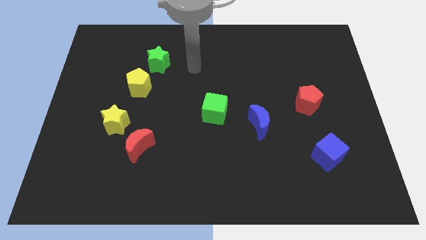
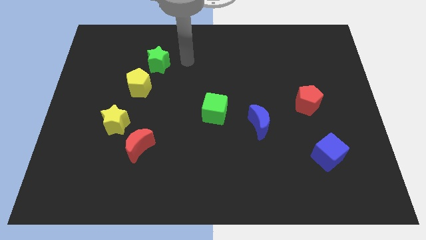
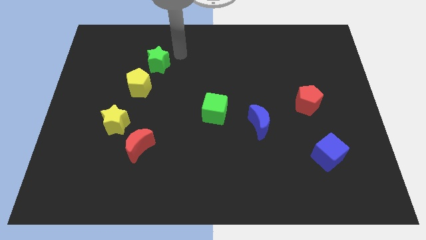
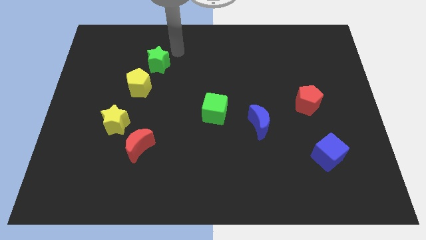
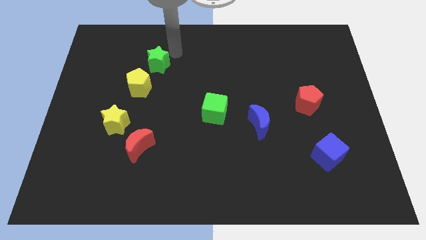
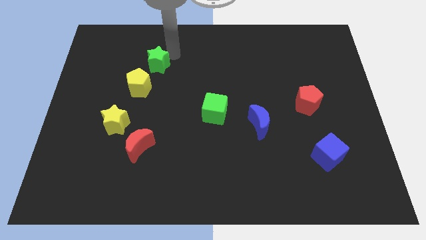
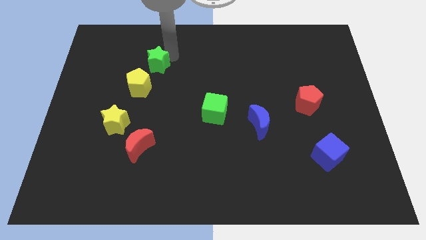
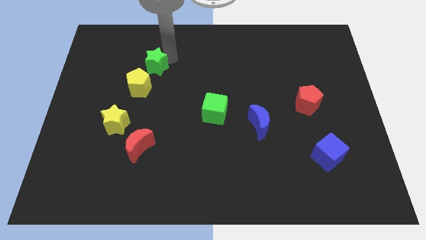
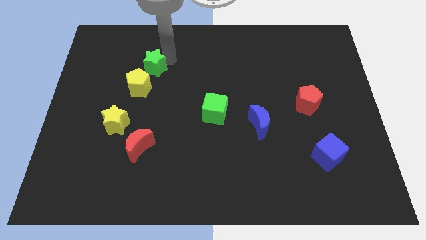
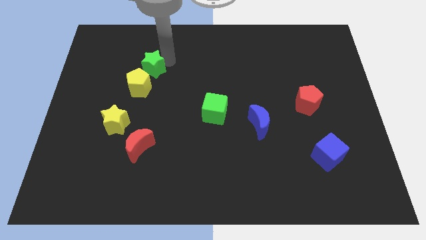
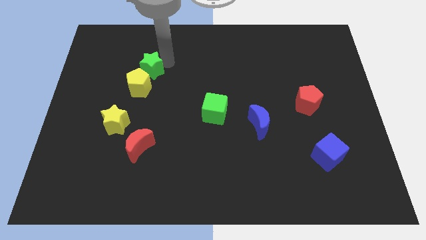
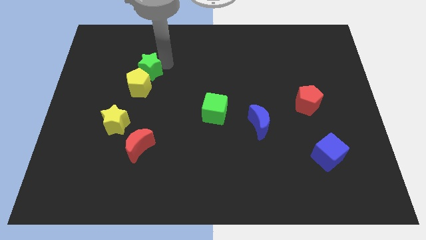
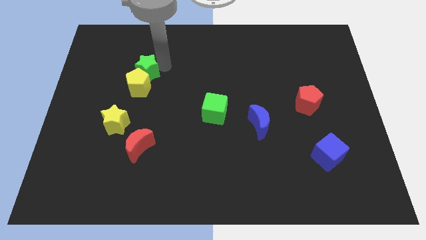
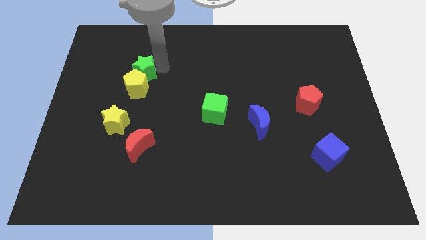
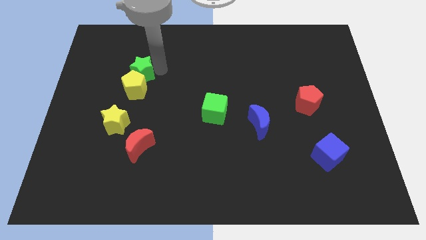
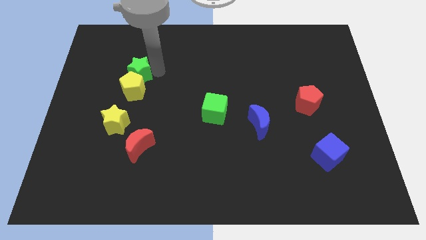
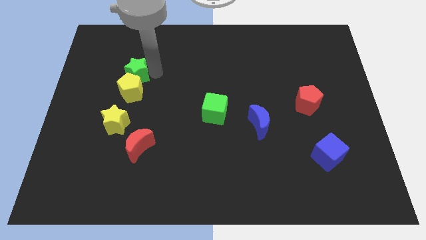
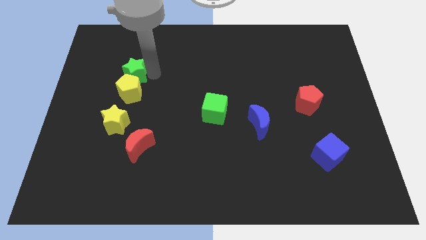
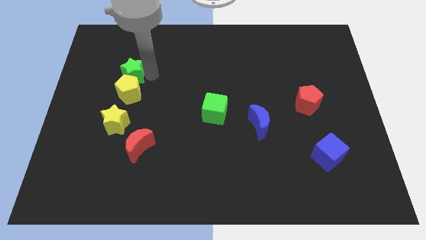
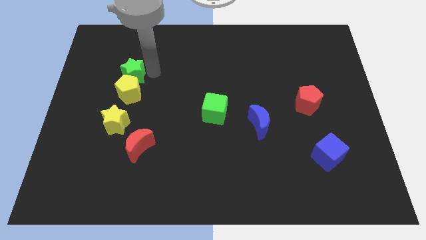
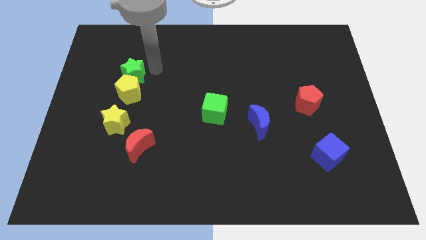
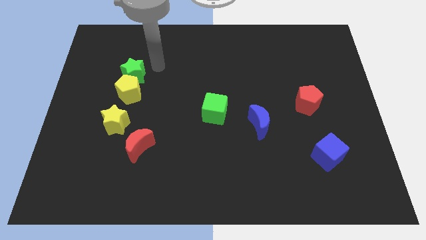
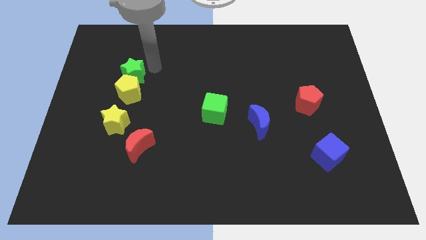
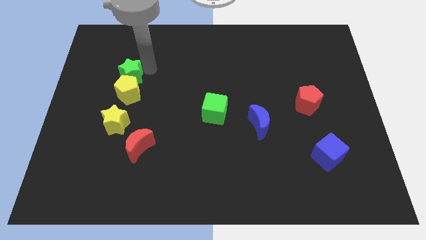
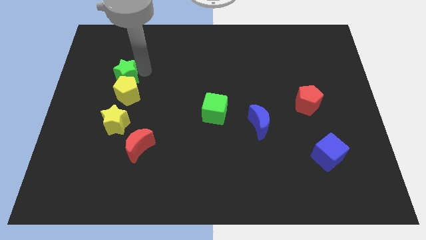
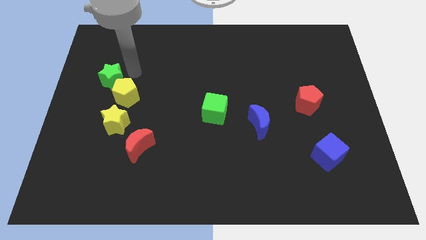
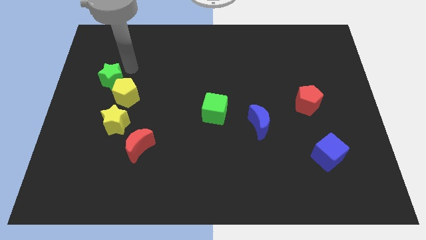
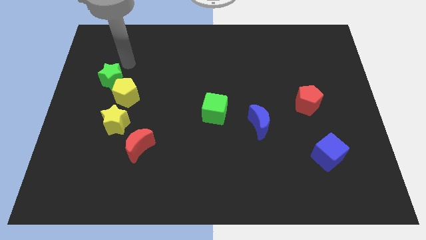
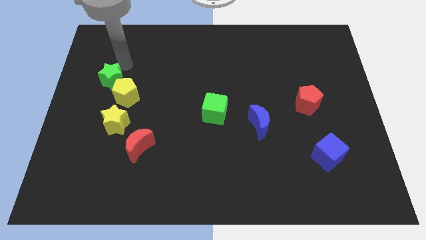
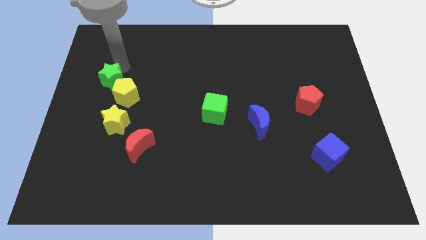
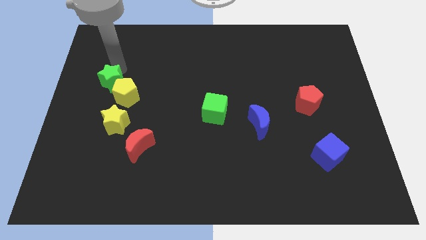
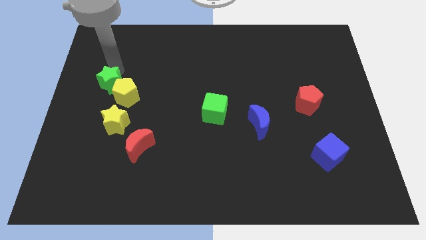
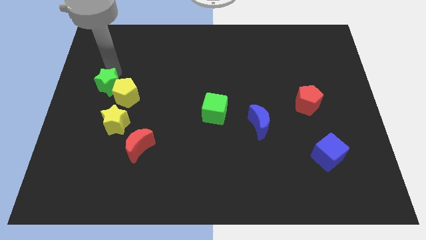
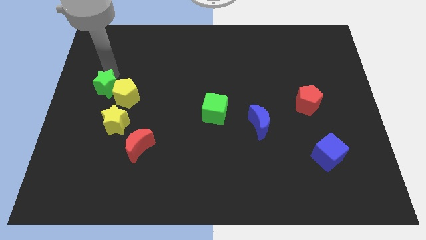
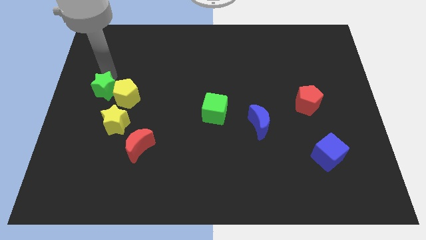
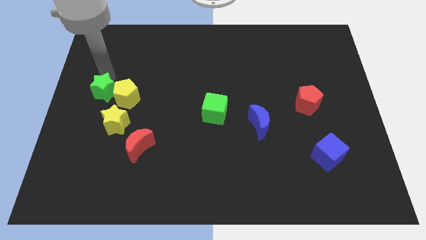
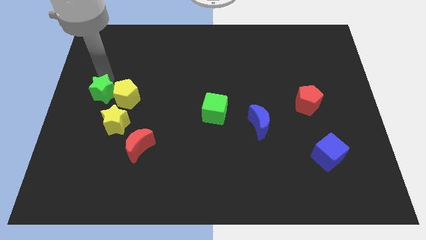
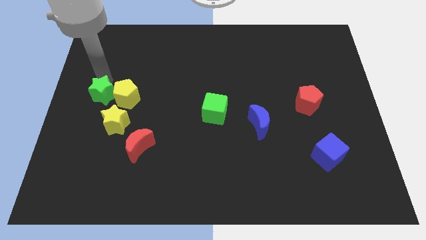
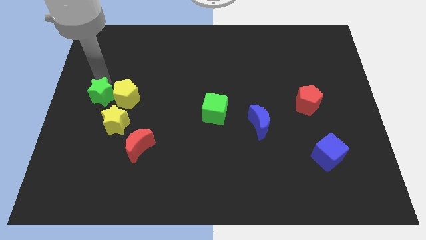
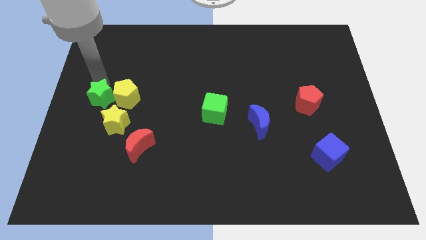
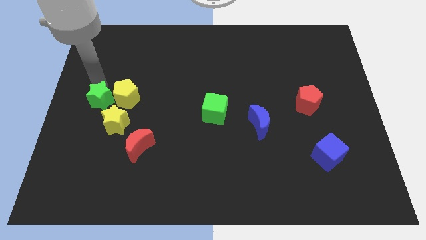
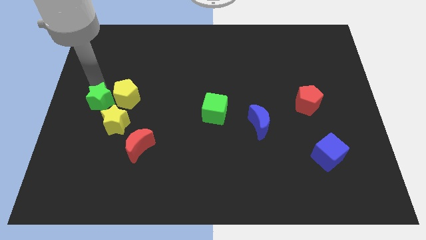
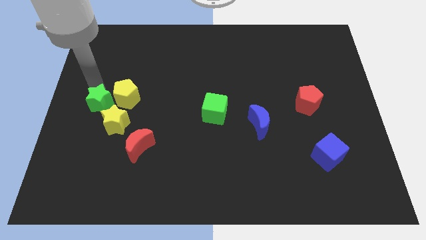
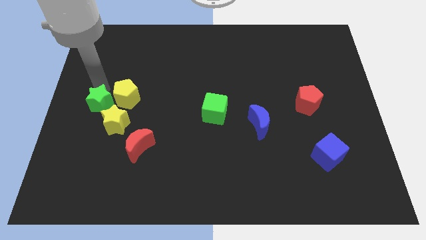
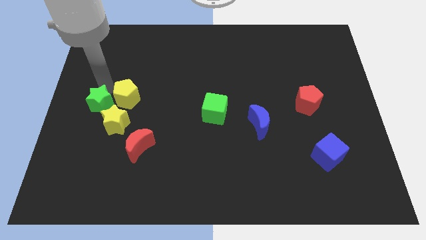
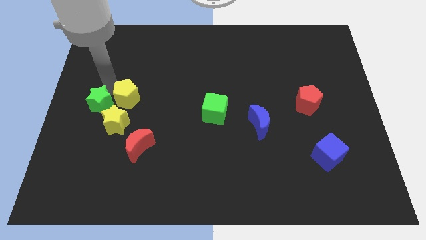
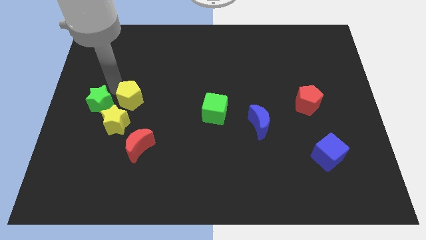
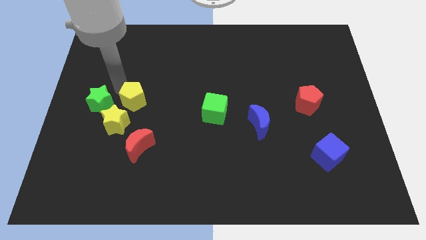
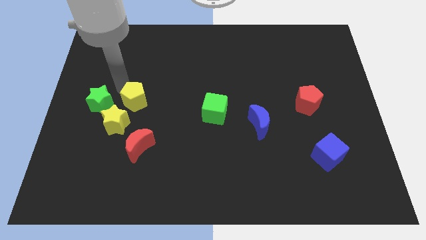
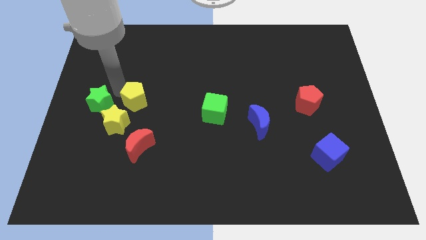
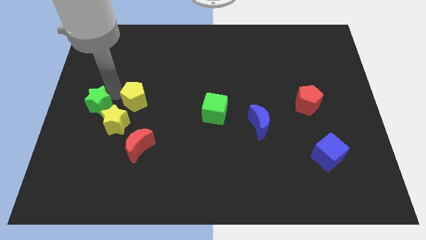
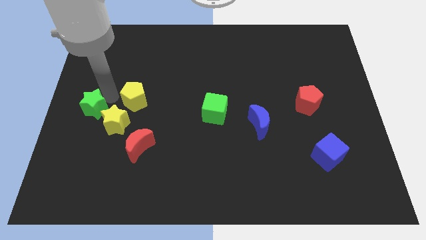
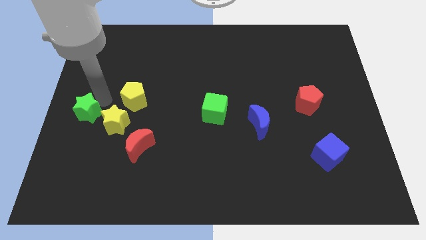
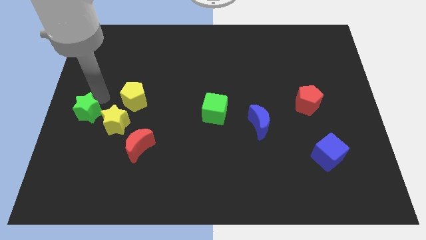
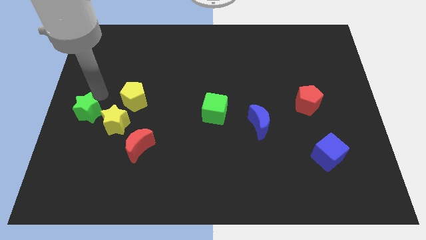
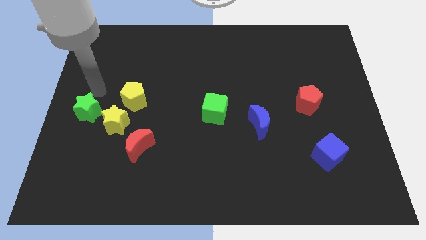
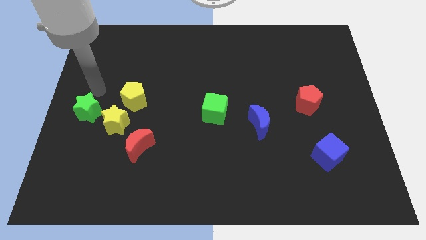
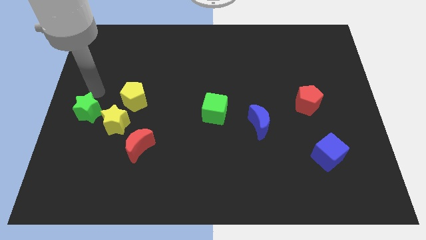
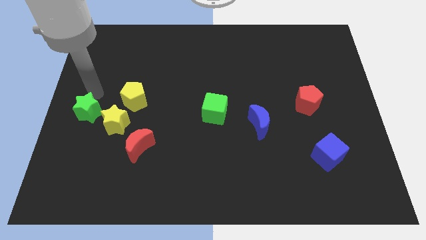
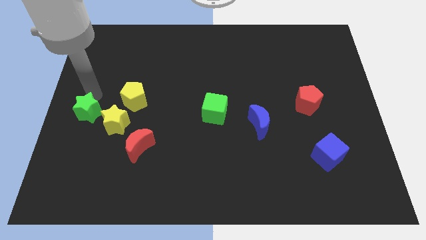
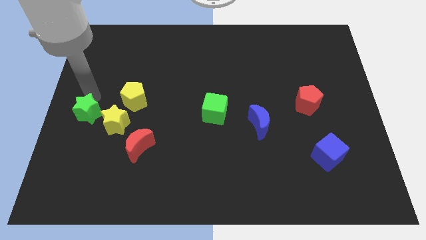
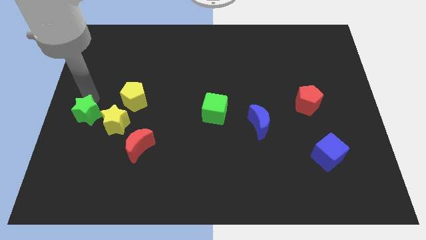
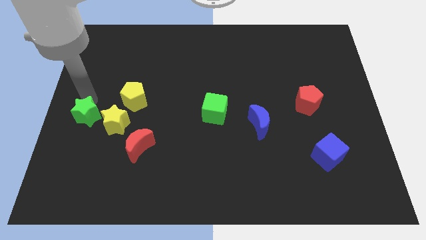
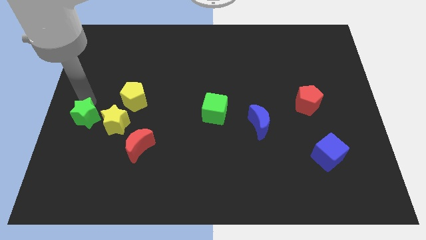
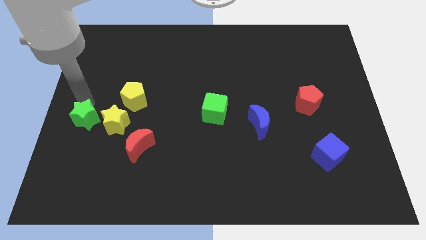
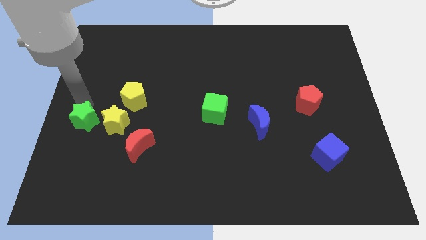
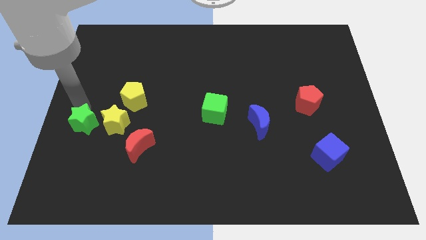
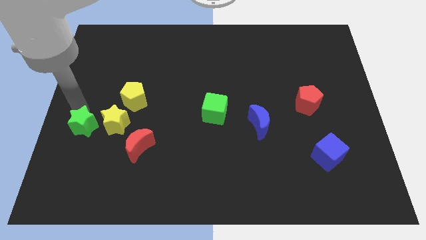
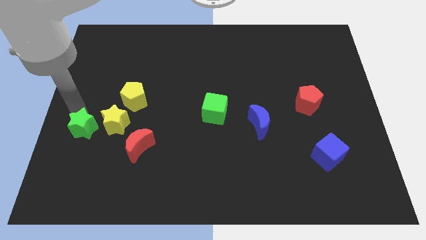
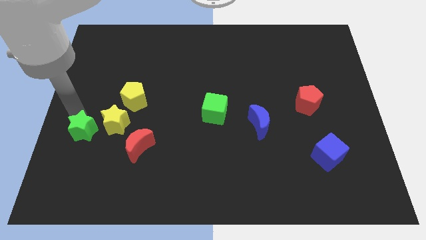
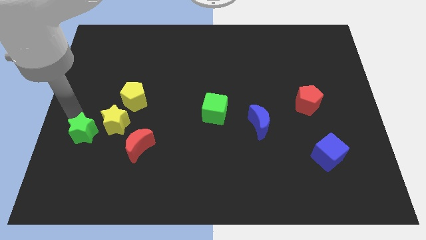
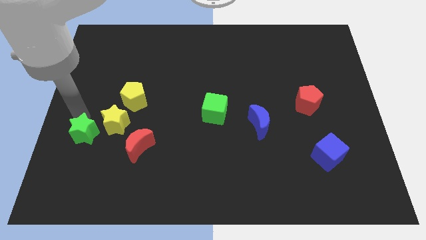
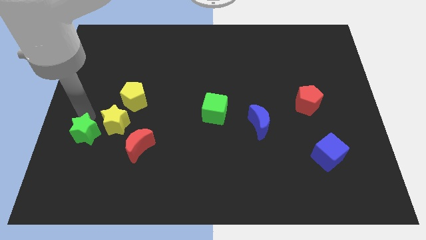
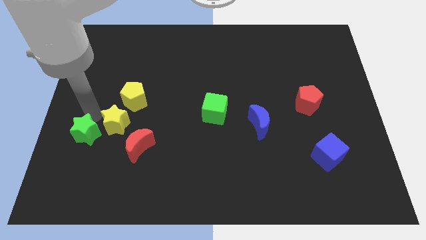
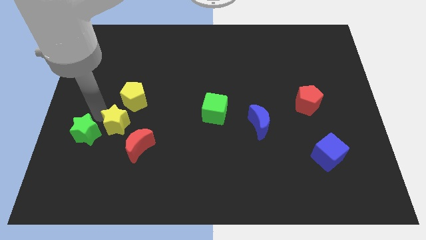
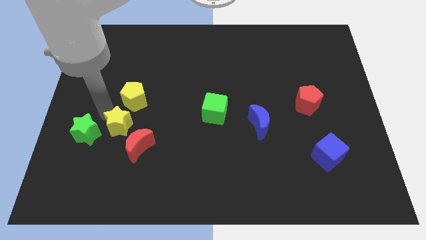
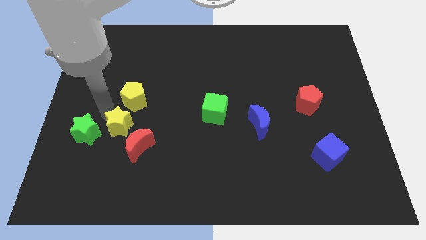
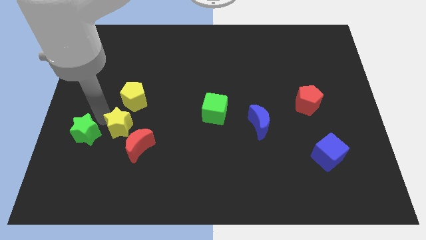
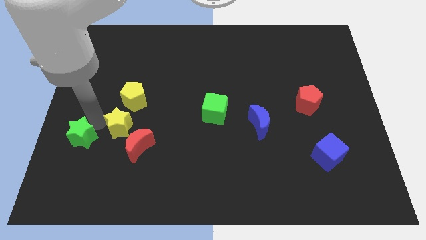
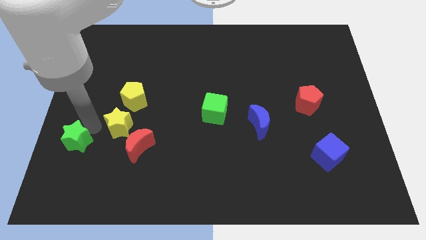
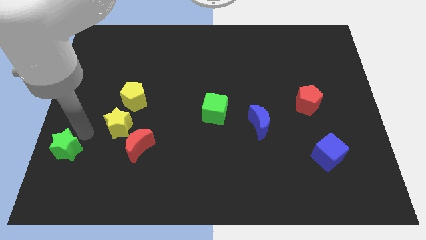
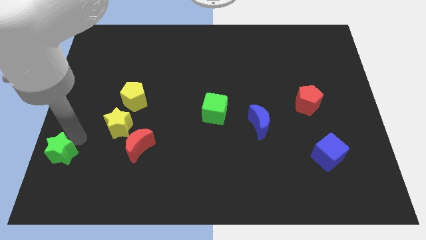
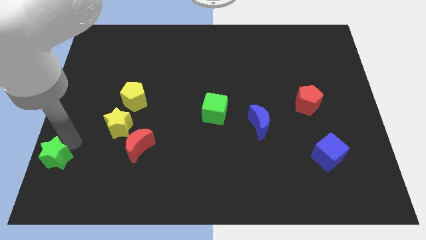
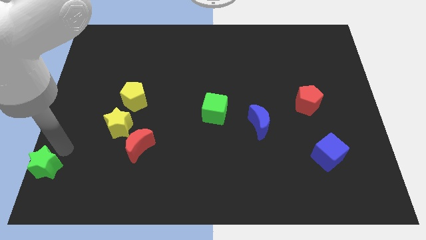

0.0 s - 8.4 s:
push the green star to the bottom left corner
